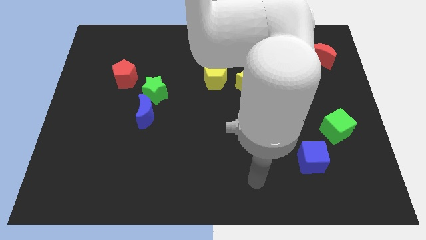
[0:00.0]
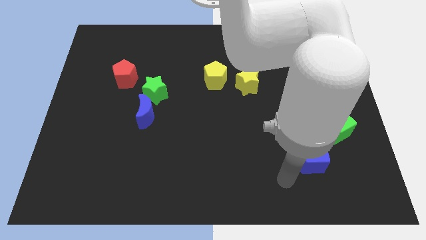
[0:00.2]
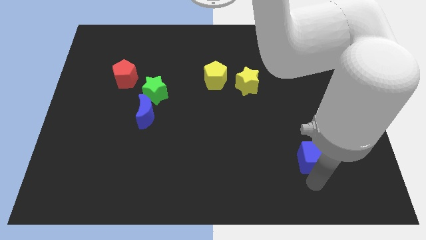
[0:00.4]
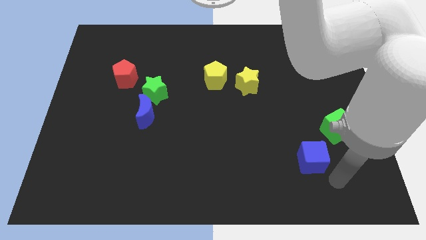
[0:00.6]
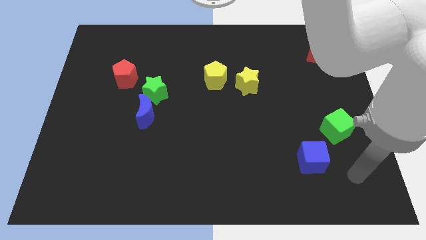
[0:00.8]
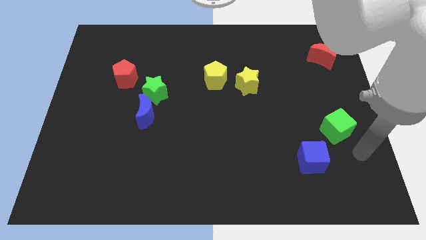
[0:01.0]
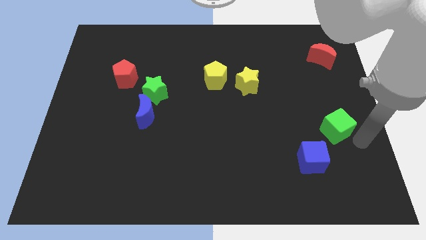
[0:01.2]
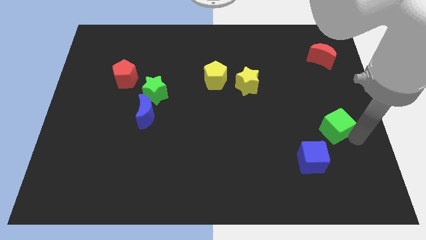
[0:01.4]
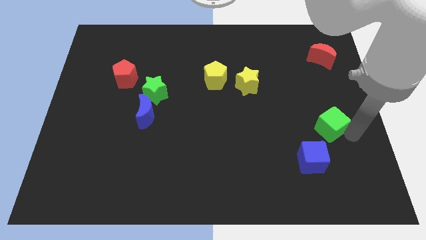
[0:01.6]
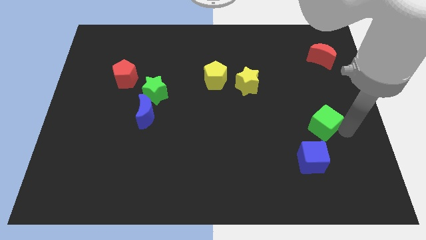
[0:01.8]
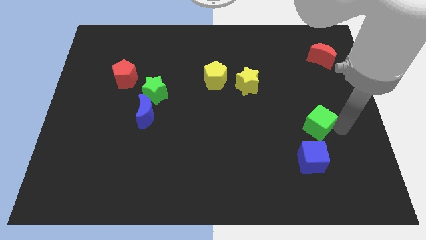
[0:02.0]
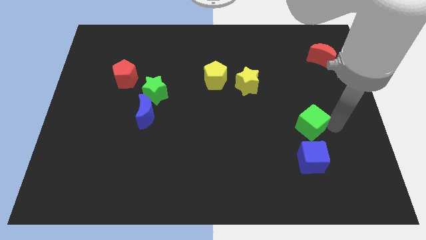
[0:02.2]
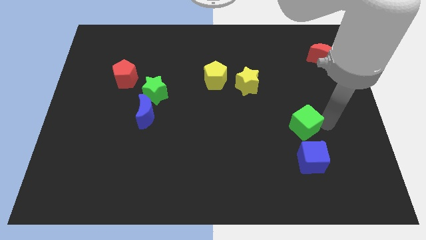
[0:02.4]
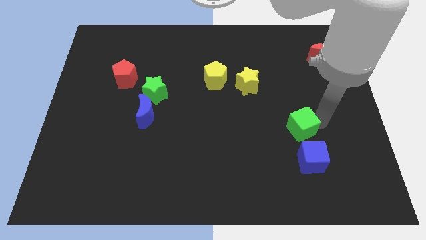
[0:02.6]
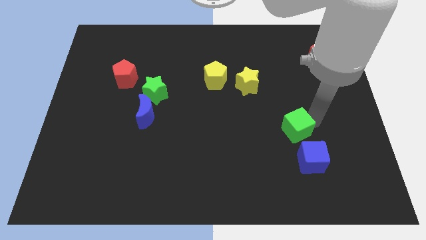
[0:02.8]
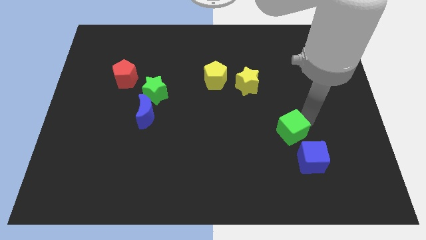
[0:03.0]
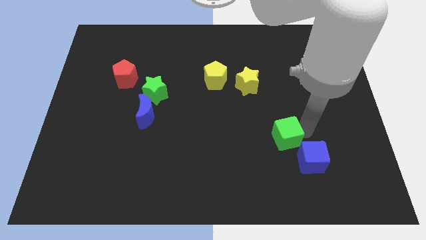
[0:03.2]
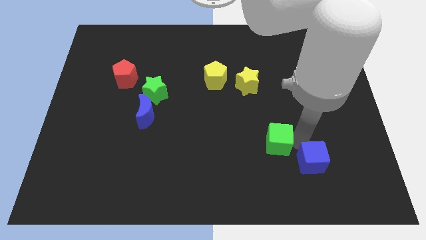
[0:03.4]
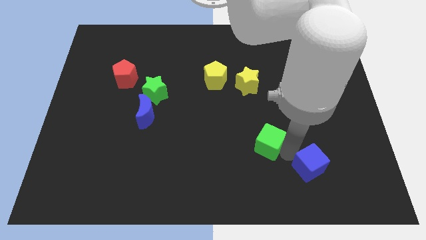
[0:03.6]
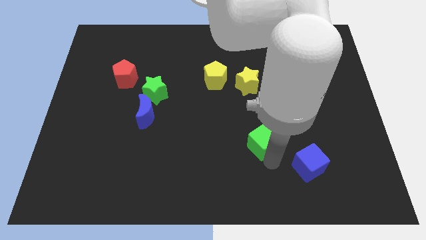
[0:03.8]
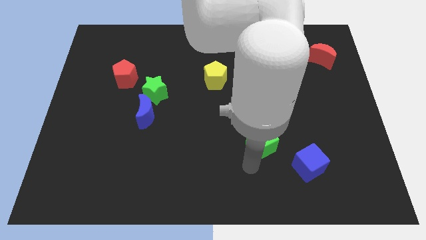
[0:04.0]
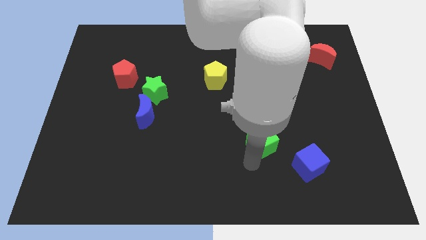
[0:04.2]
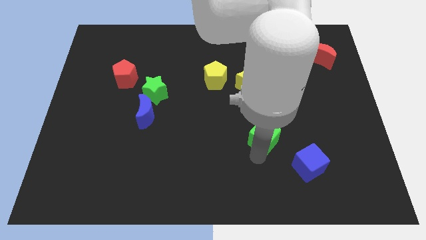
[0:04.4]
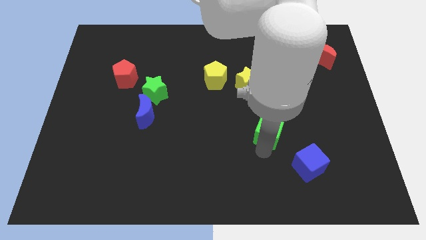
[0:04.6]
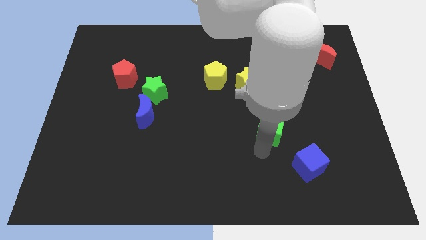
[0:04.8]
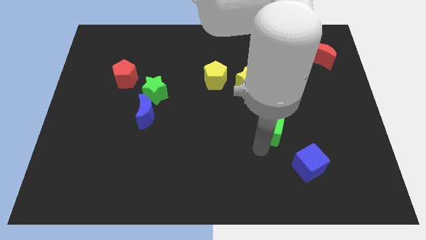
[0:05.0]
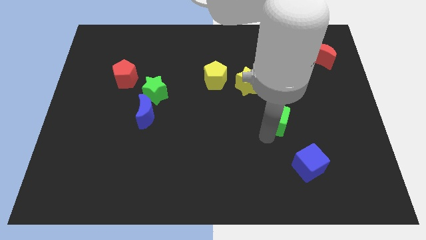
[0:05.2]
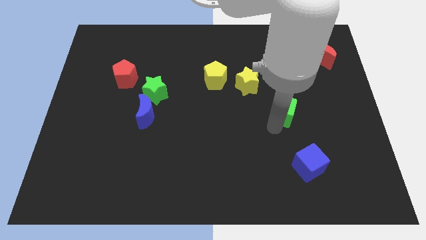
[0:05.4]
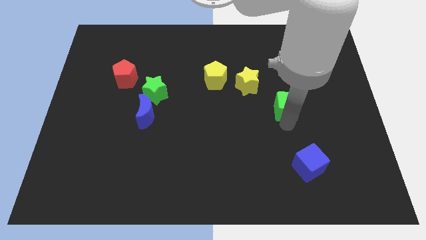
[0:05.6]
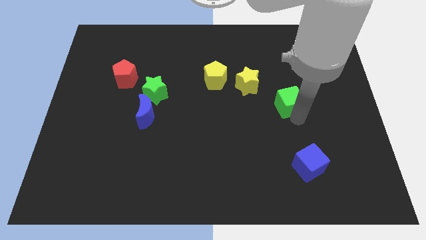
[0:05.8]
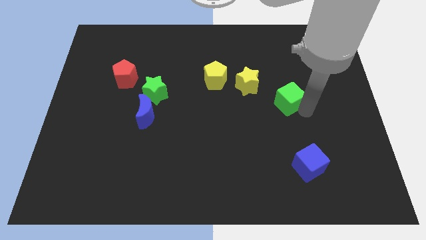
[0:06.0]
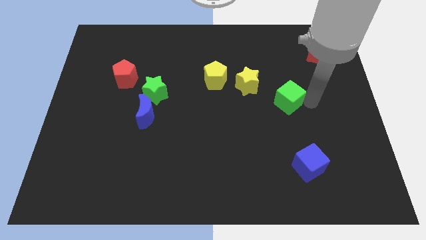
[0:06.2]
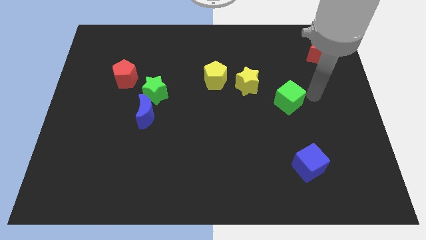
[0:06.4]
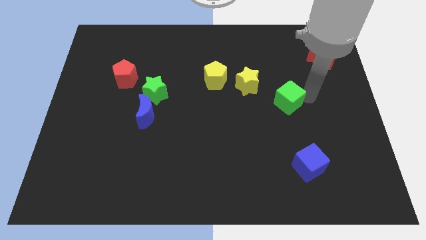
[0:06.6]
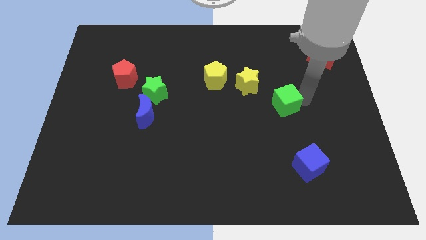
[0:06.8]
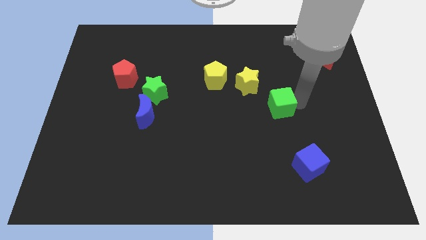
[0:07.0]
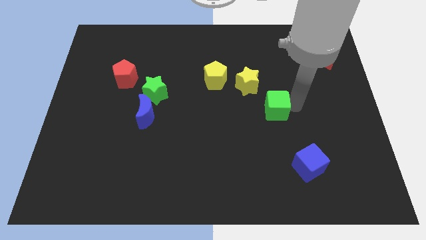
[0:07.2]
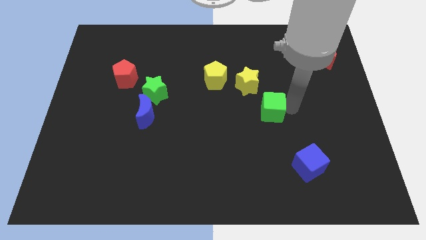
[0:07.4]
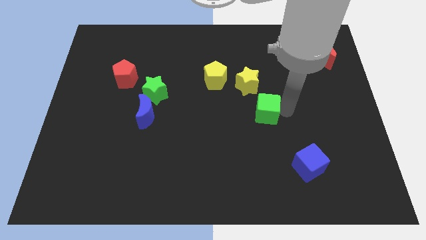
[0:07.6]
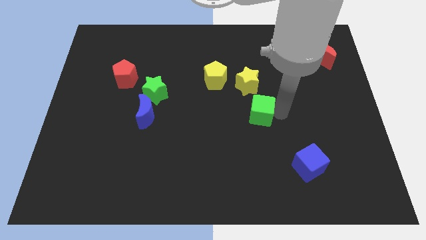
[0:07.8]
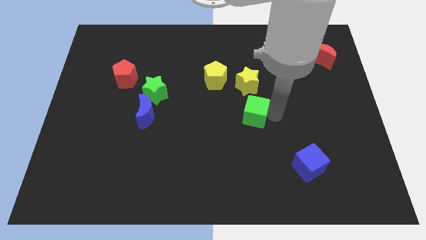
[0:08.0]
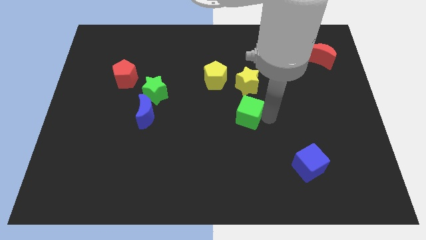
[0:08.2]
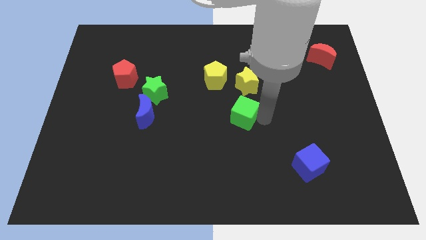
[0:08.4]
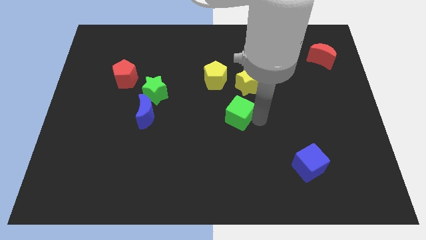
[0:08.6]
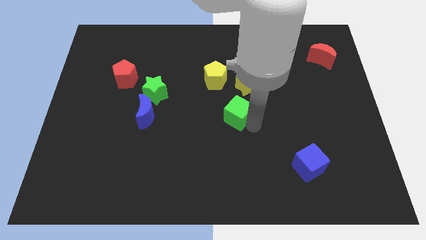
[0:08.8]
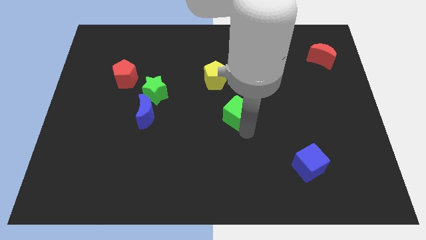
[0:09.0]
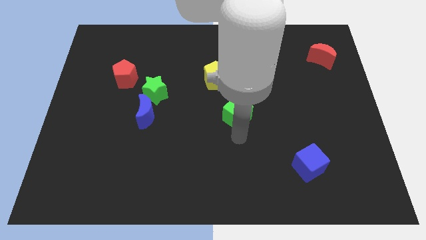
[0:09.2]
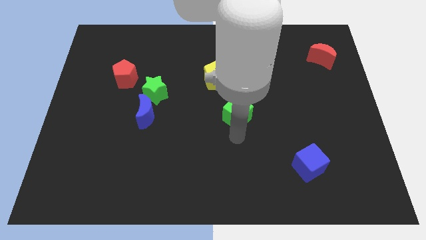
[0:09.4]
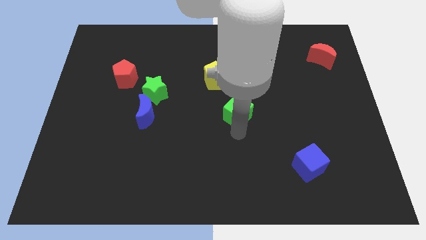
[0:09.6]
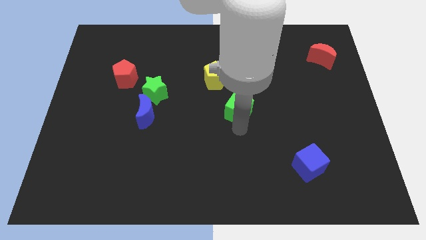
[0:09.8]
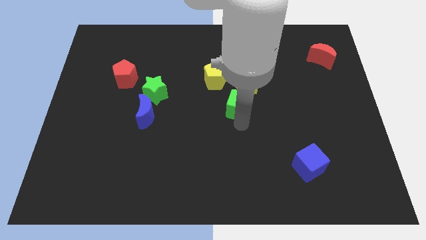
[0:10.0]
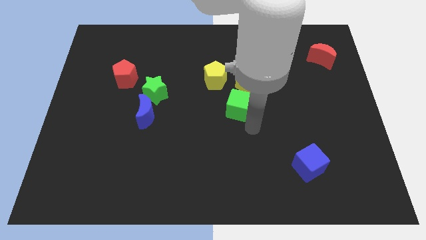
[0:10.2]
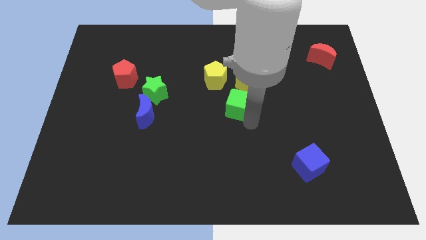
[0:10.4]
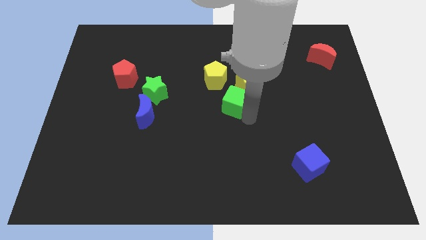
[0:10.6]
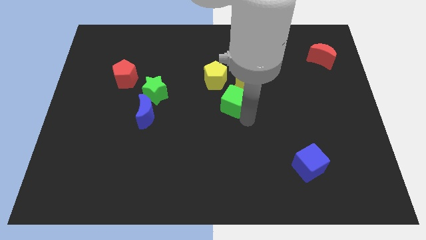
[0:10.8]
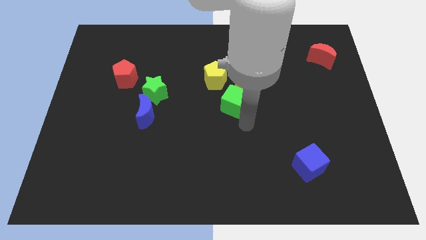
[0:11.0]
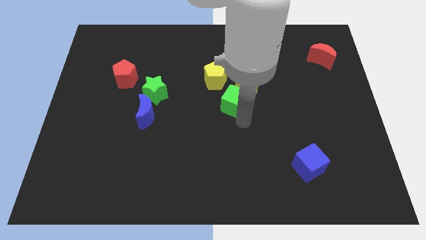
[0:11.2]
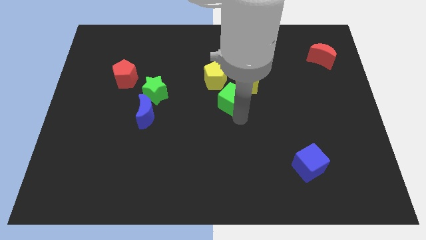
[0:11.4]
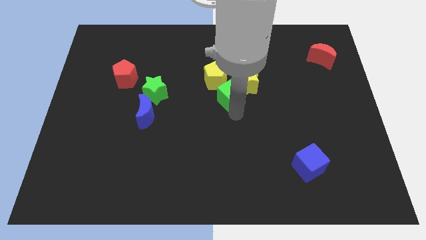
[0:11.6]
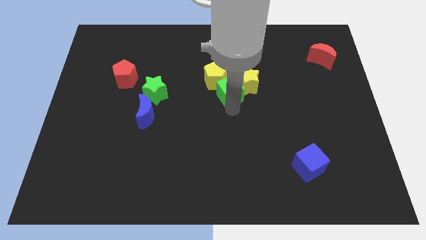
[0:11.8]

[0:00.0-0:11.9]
put the green cube towards the yellow pentagon

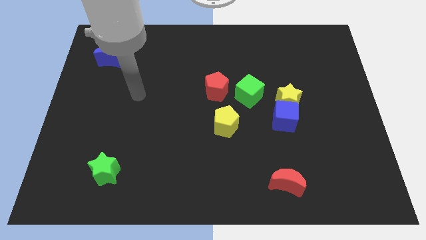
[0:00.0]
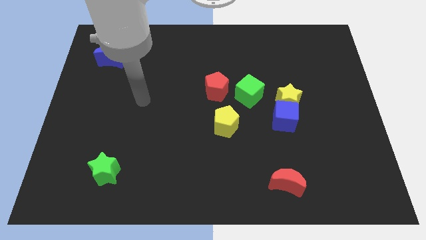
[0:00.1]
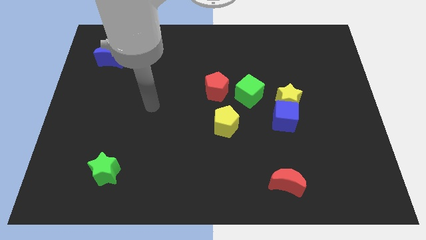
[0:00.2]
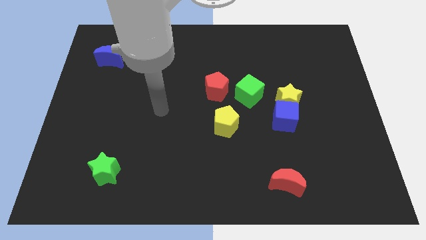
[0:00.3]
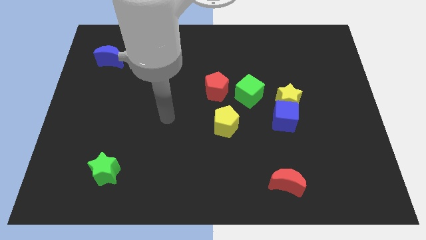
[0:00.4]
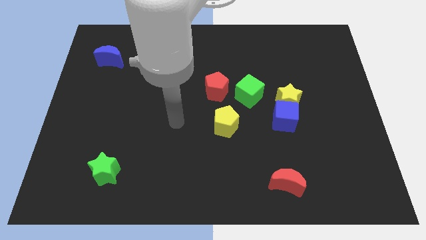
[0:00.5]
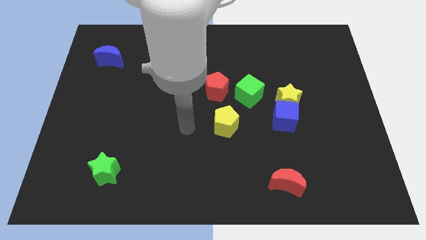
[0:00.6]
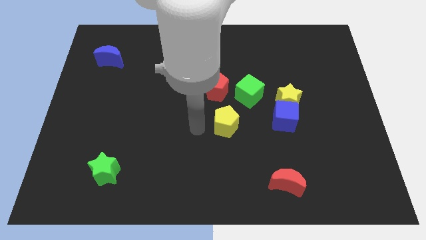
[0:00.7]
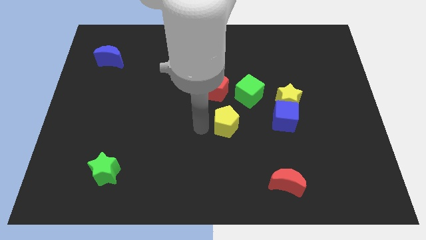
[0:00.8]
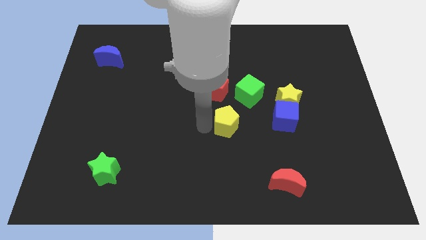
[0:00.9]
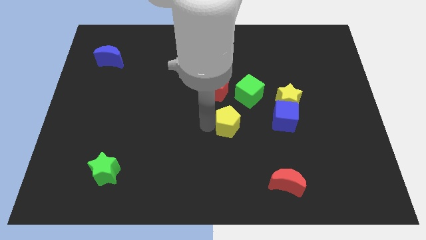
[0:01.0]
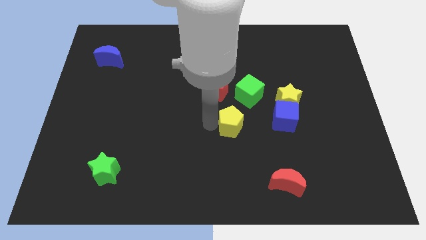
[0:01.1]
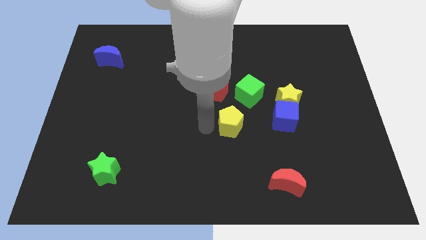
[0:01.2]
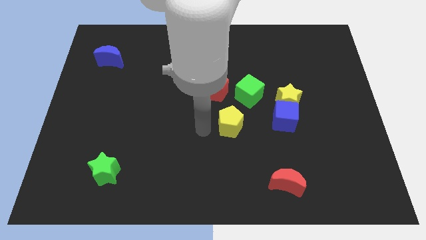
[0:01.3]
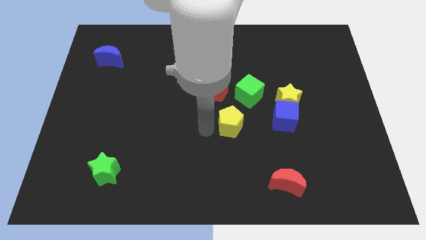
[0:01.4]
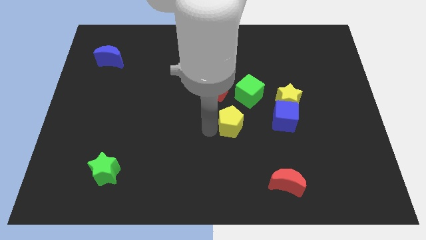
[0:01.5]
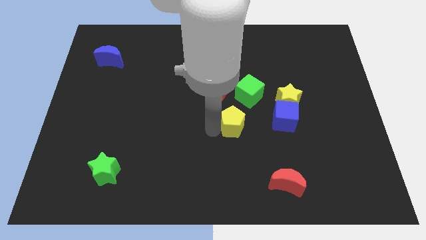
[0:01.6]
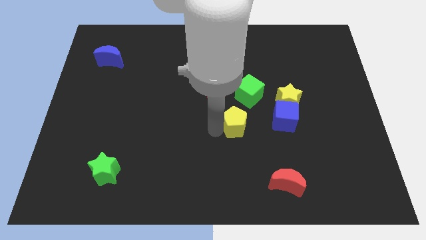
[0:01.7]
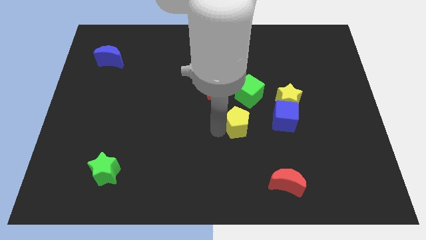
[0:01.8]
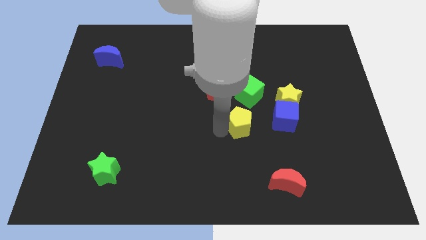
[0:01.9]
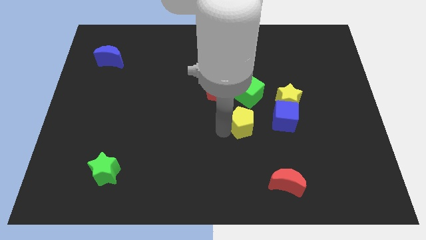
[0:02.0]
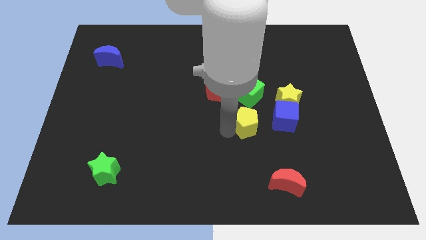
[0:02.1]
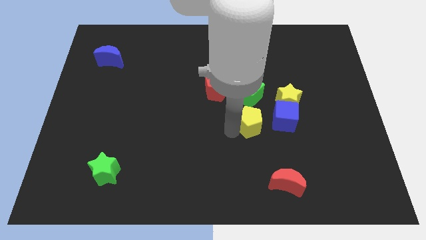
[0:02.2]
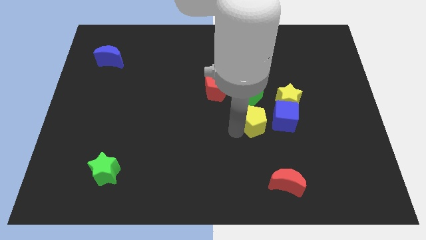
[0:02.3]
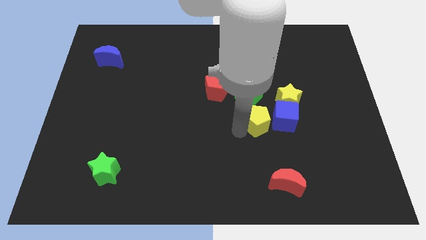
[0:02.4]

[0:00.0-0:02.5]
move the yellow pentagon close to the blue cube
